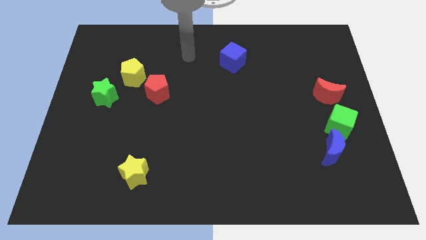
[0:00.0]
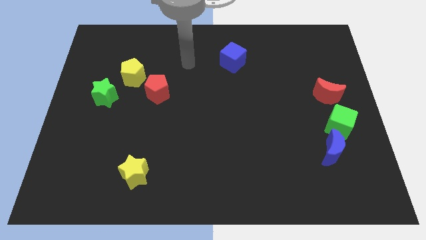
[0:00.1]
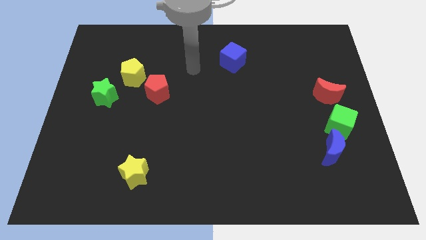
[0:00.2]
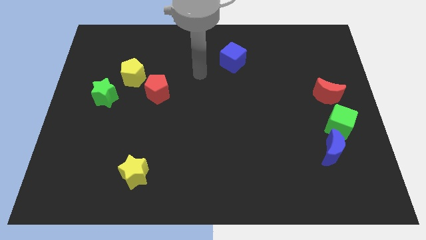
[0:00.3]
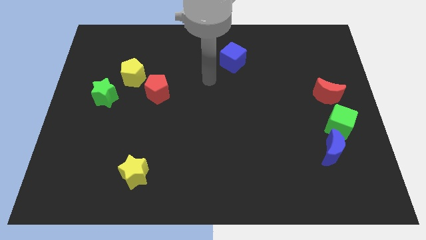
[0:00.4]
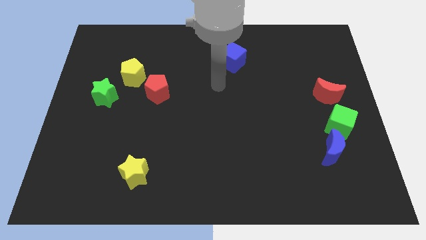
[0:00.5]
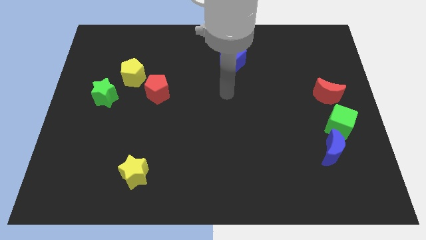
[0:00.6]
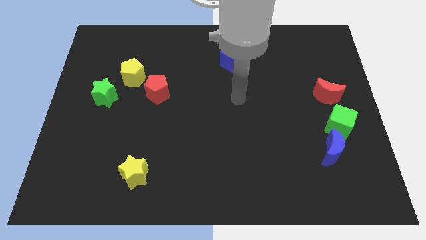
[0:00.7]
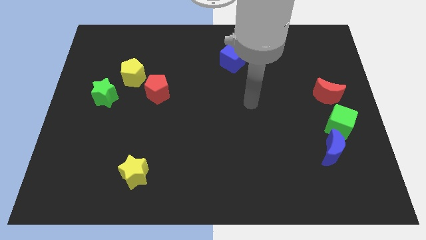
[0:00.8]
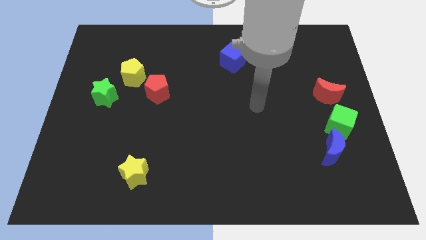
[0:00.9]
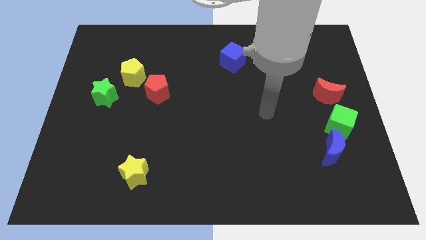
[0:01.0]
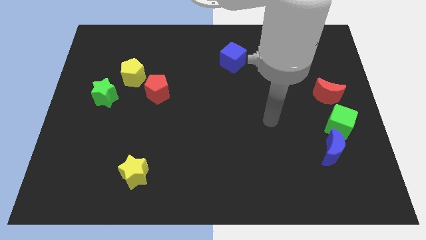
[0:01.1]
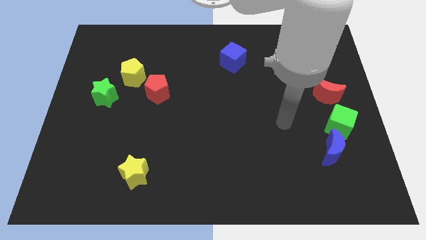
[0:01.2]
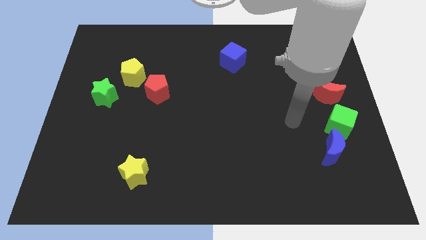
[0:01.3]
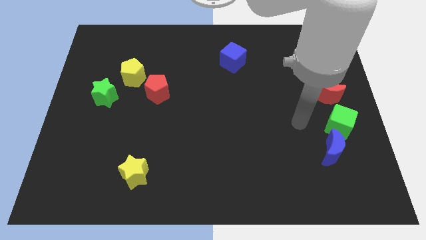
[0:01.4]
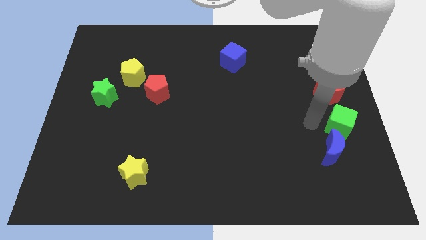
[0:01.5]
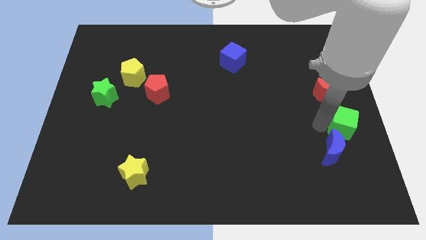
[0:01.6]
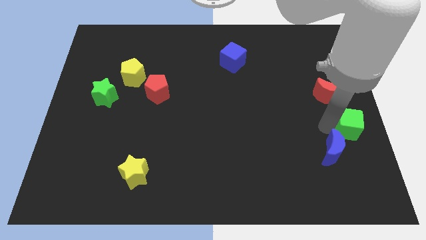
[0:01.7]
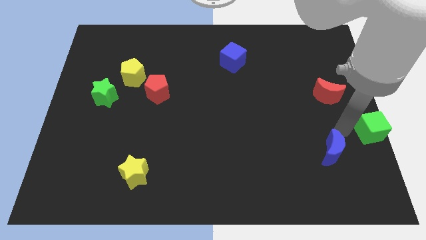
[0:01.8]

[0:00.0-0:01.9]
separate the blue moon from the green cube

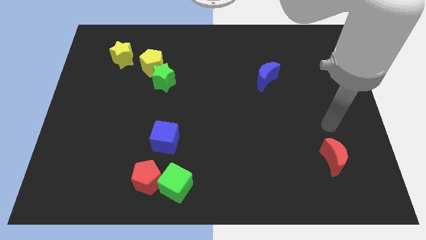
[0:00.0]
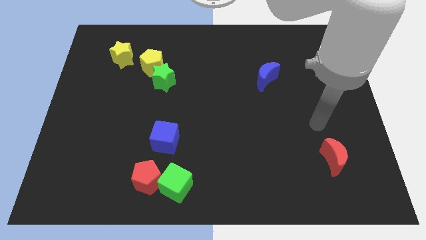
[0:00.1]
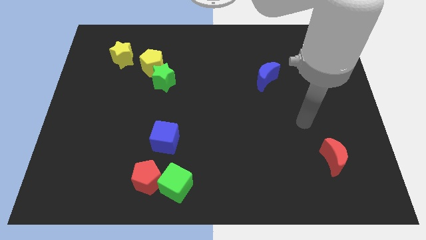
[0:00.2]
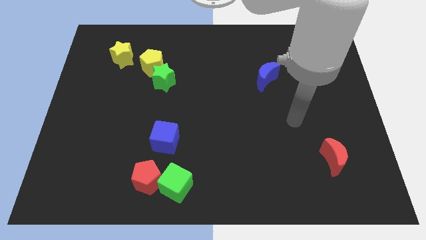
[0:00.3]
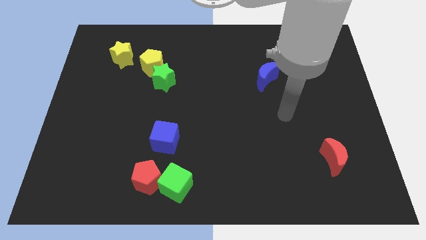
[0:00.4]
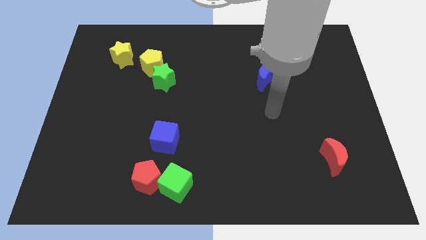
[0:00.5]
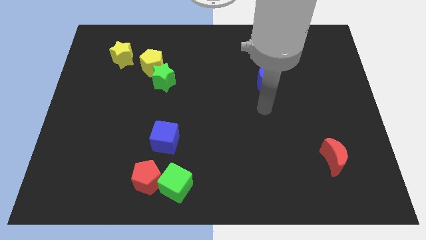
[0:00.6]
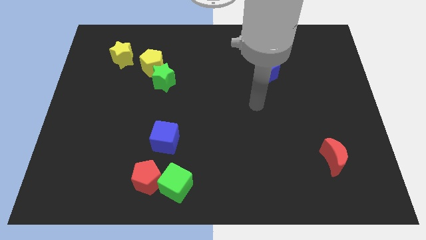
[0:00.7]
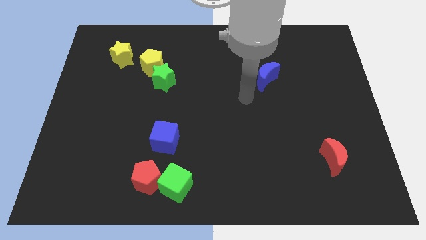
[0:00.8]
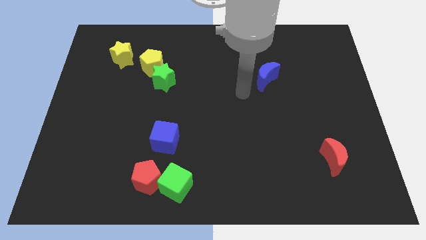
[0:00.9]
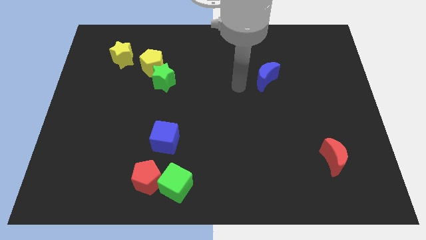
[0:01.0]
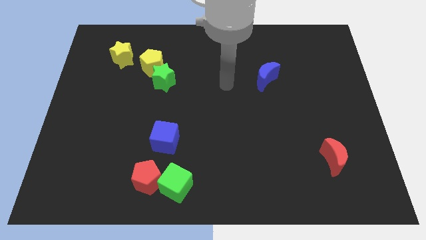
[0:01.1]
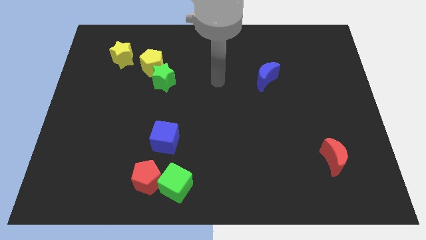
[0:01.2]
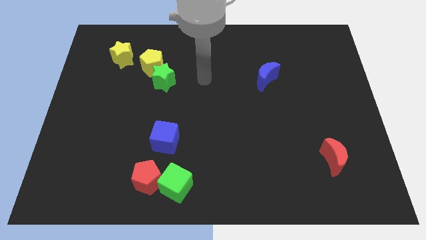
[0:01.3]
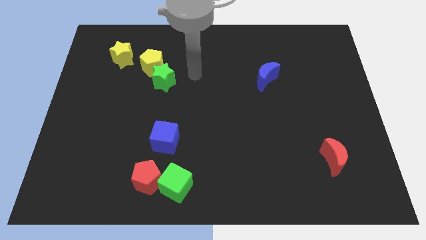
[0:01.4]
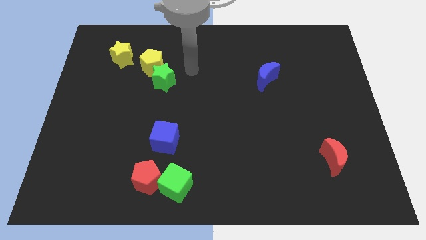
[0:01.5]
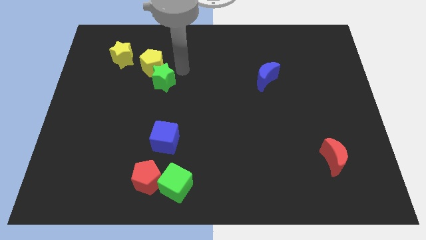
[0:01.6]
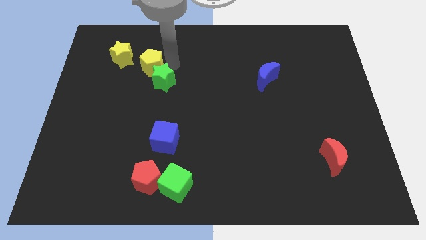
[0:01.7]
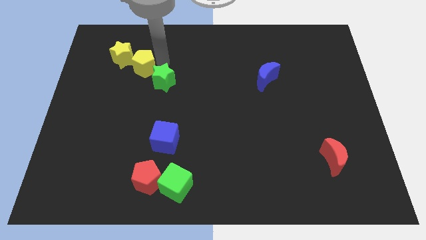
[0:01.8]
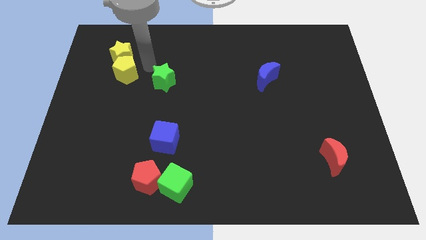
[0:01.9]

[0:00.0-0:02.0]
pull the green star apart from the yellow pentagon

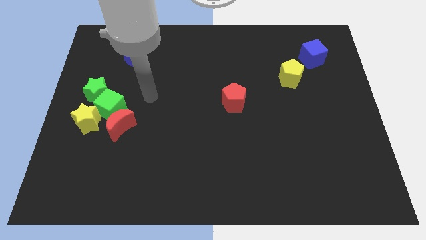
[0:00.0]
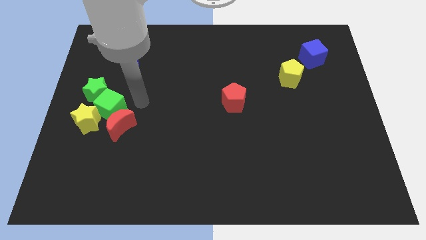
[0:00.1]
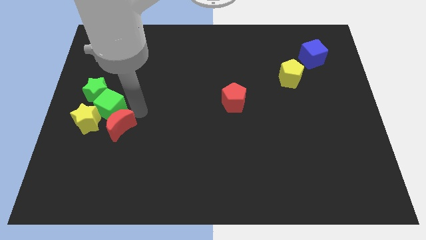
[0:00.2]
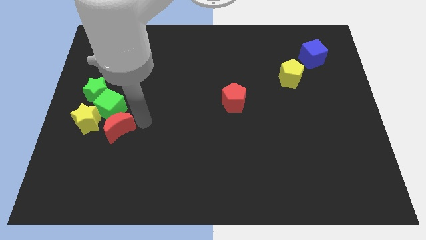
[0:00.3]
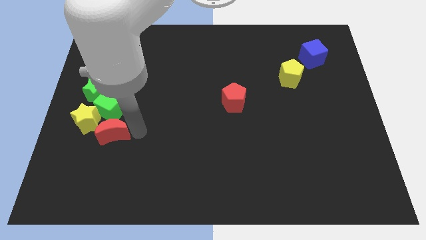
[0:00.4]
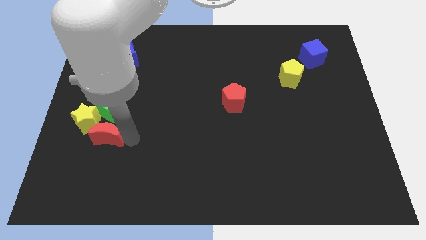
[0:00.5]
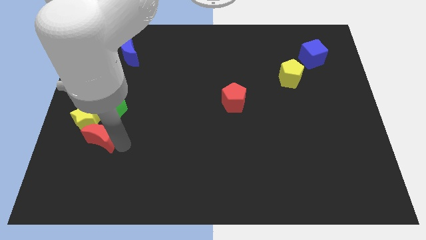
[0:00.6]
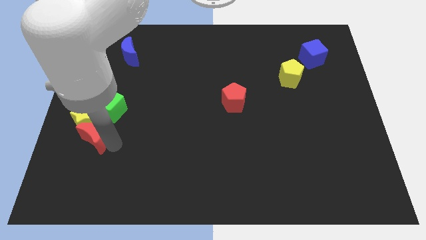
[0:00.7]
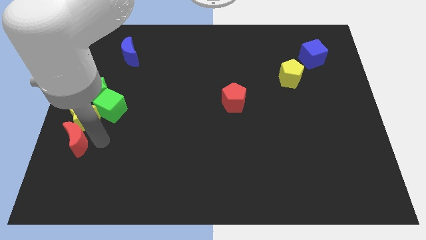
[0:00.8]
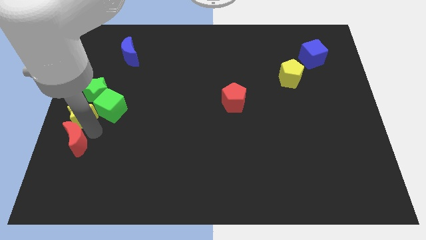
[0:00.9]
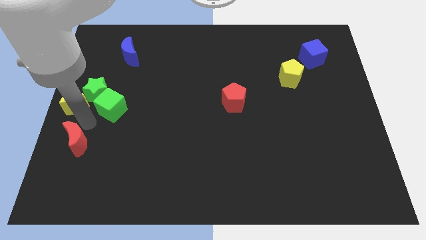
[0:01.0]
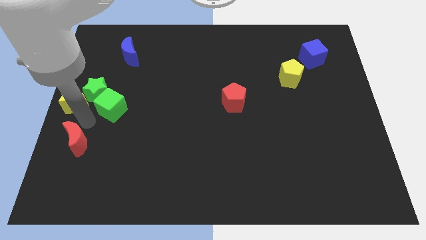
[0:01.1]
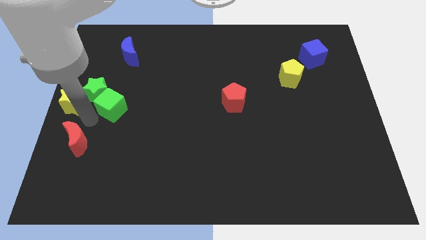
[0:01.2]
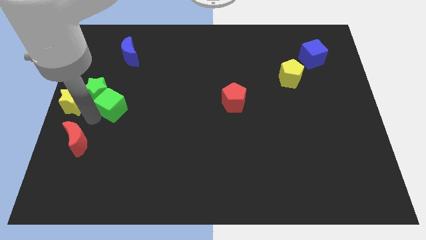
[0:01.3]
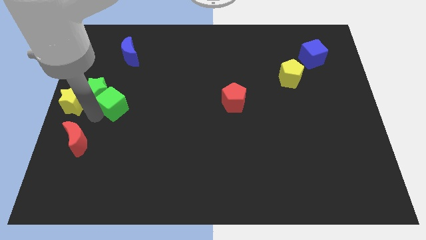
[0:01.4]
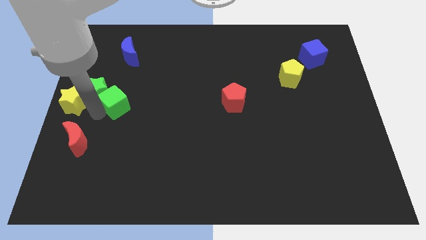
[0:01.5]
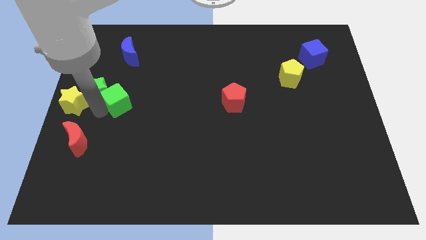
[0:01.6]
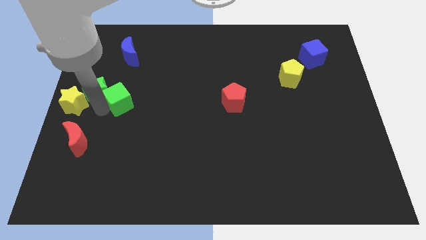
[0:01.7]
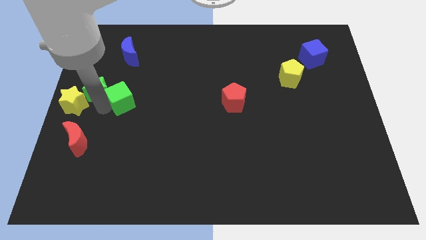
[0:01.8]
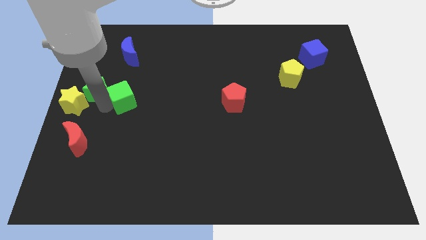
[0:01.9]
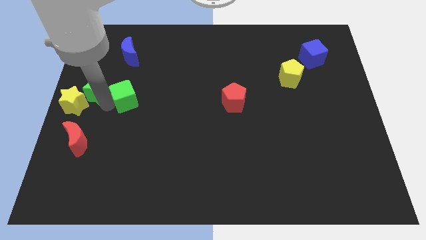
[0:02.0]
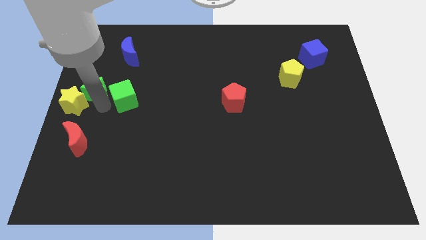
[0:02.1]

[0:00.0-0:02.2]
pull the green cube apart from the clump

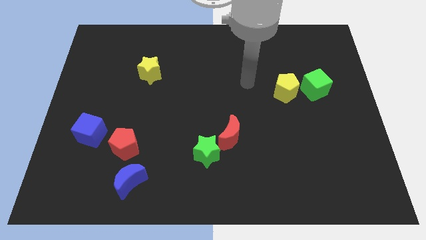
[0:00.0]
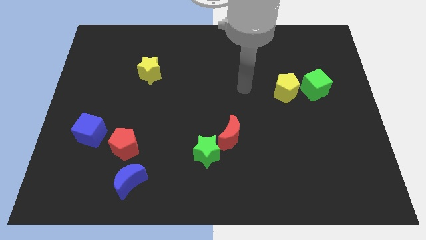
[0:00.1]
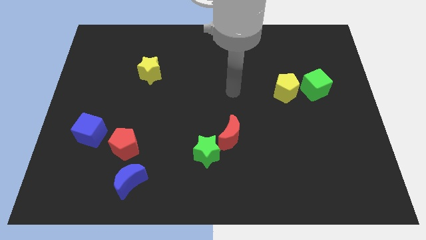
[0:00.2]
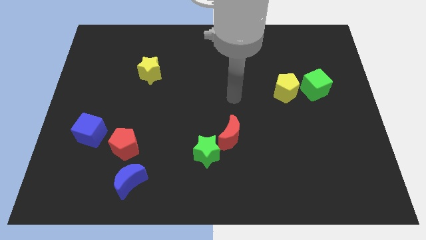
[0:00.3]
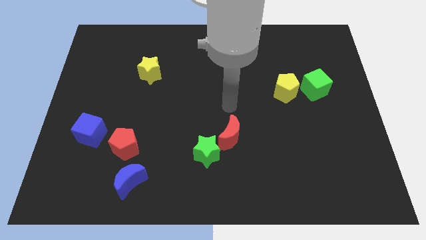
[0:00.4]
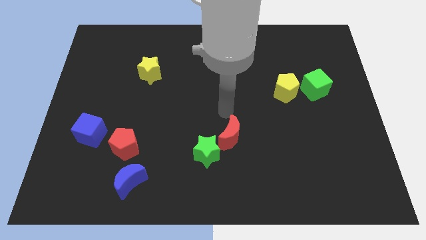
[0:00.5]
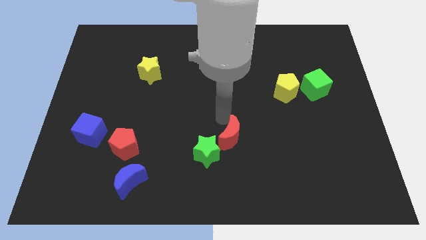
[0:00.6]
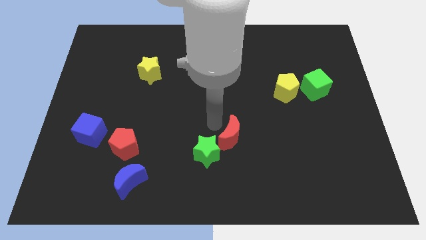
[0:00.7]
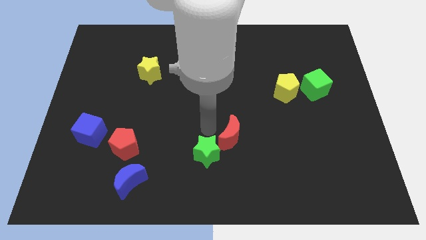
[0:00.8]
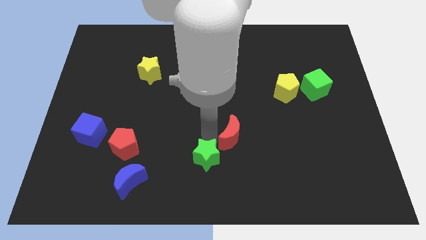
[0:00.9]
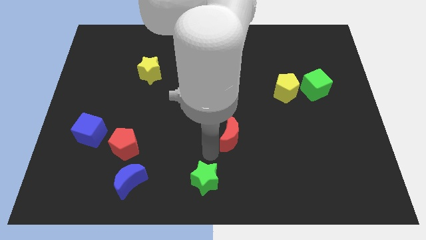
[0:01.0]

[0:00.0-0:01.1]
move the red moon away from the green star

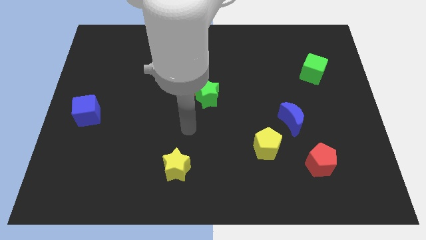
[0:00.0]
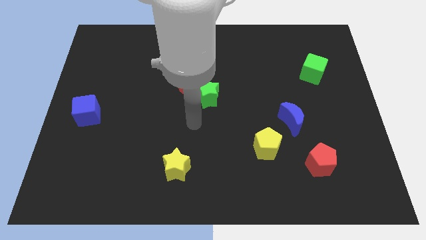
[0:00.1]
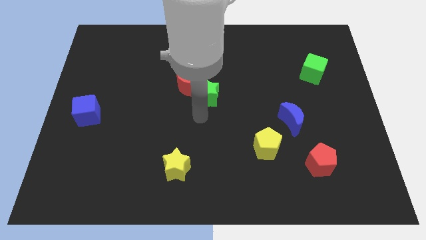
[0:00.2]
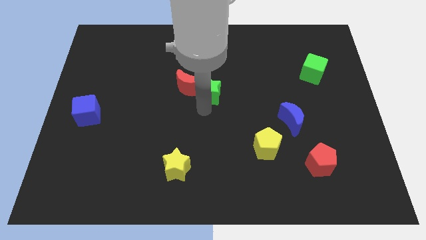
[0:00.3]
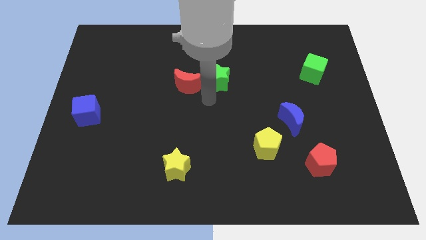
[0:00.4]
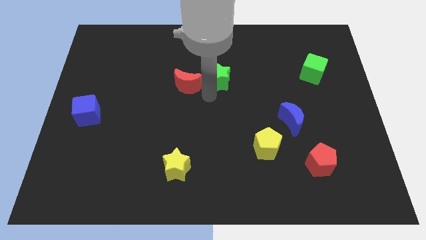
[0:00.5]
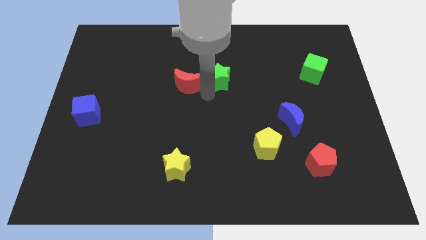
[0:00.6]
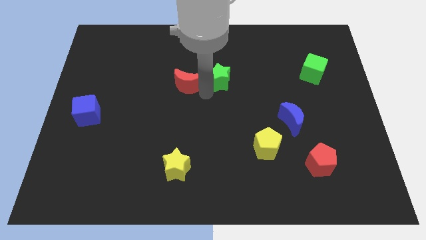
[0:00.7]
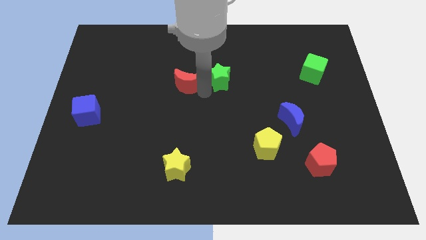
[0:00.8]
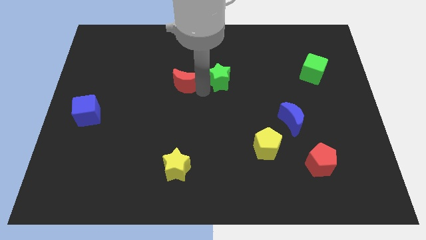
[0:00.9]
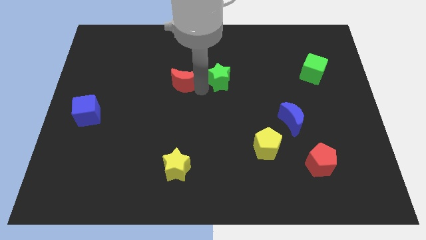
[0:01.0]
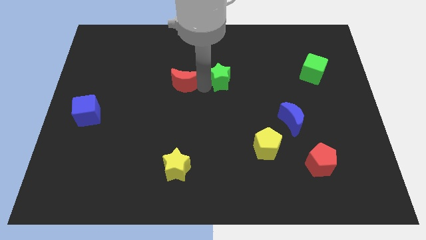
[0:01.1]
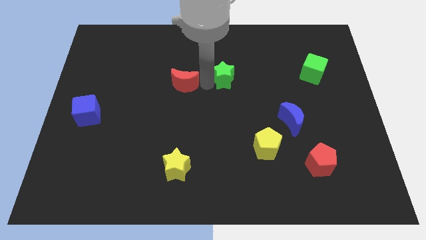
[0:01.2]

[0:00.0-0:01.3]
pull the red moon apart from the green star

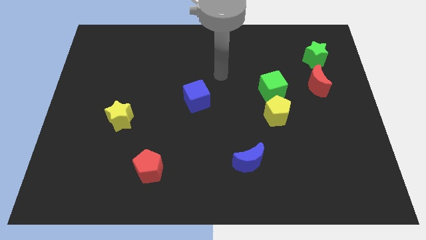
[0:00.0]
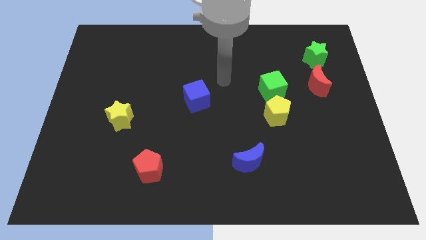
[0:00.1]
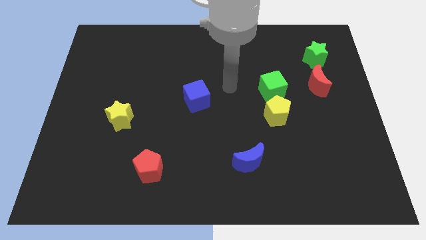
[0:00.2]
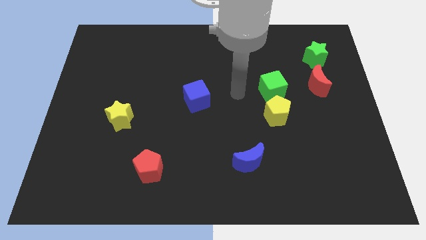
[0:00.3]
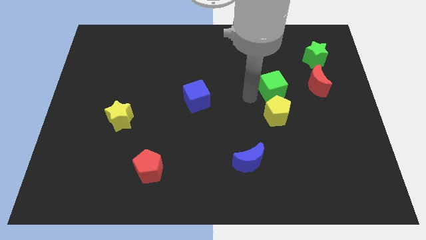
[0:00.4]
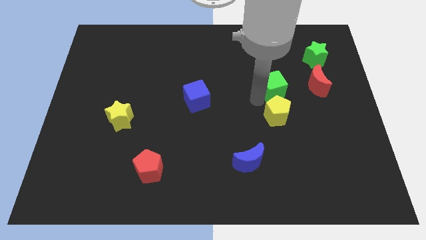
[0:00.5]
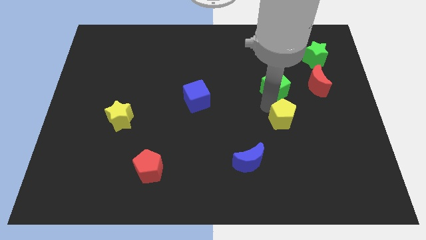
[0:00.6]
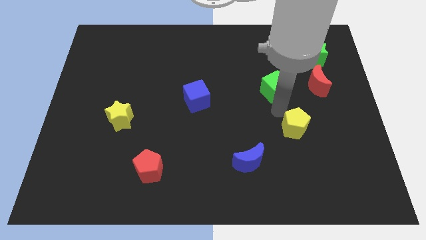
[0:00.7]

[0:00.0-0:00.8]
pull the green cube apart from the yellow pentagon
